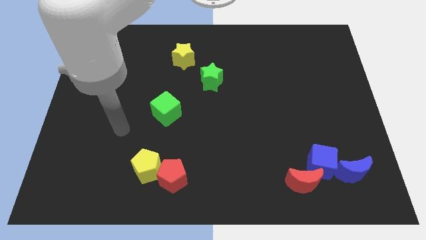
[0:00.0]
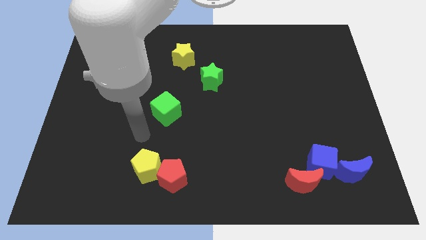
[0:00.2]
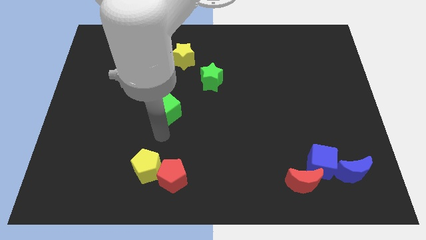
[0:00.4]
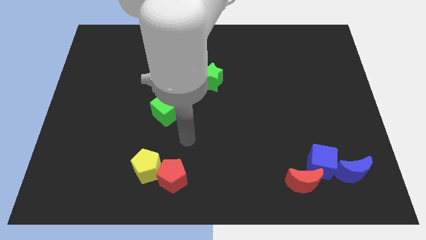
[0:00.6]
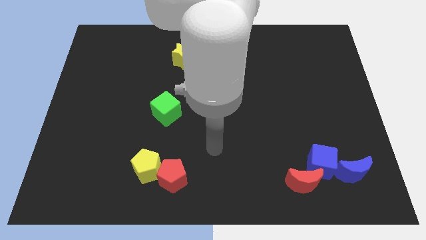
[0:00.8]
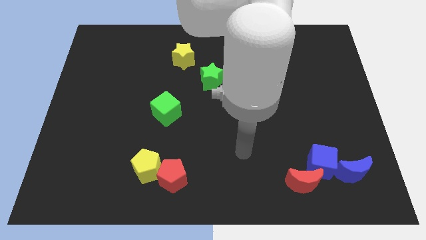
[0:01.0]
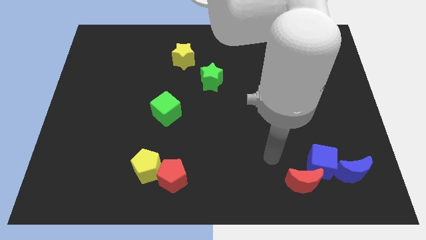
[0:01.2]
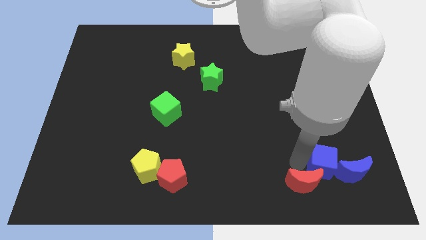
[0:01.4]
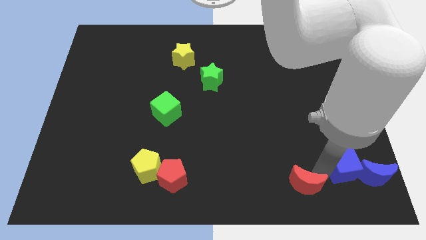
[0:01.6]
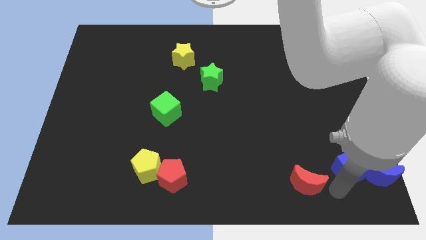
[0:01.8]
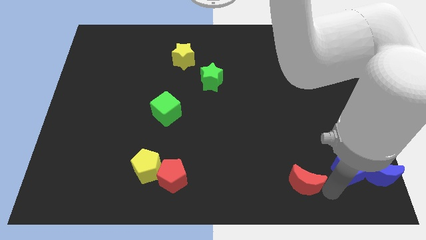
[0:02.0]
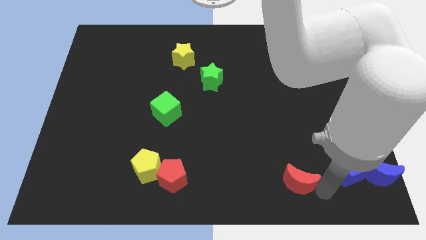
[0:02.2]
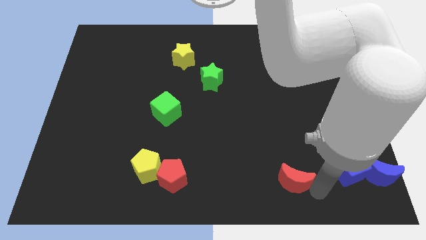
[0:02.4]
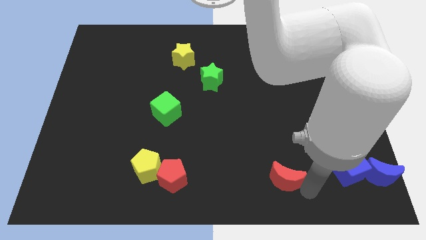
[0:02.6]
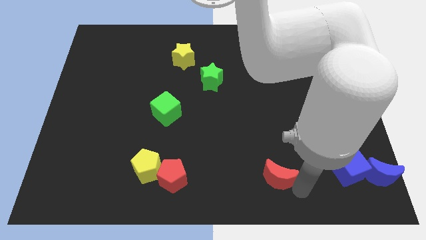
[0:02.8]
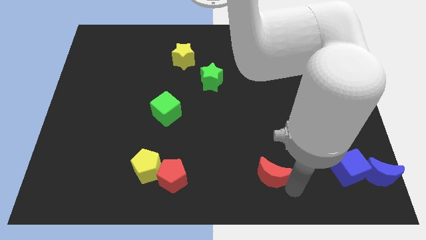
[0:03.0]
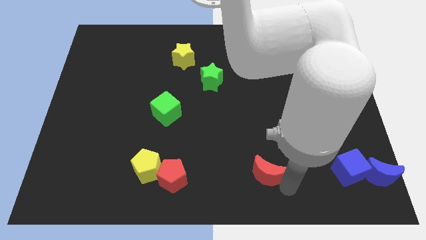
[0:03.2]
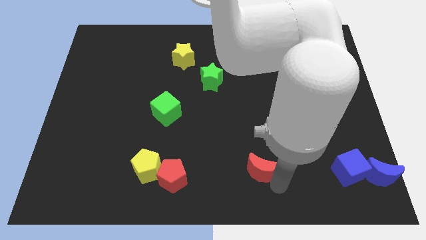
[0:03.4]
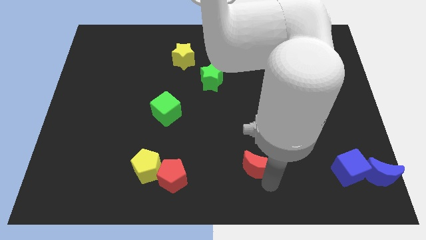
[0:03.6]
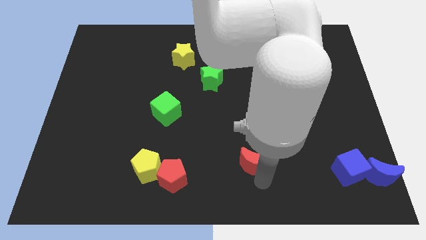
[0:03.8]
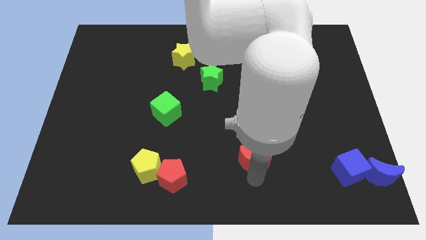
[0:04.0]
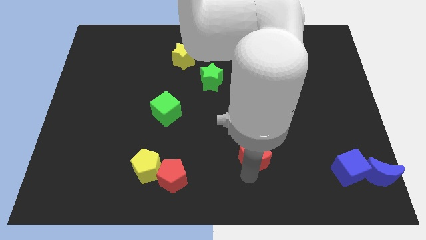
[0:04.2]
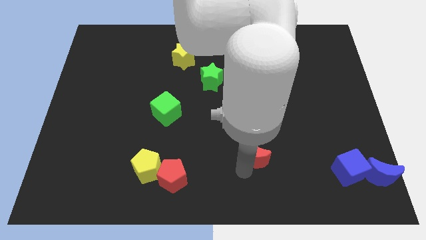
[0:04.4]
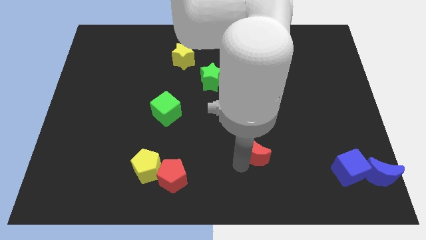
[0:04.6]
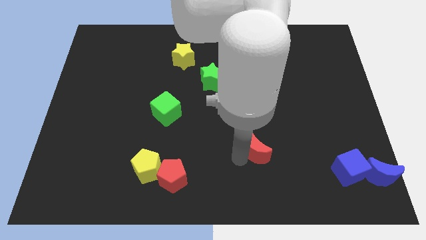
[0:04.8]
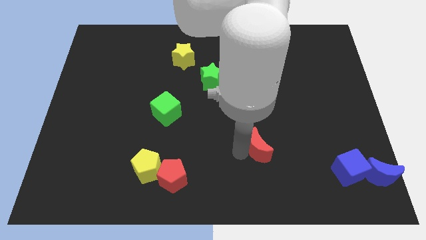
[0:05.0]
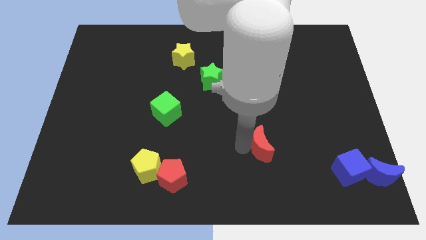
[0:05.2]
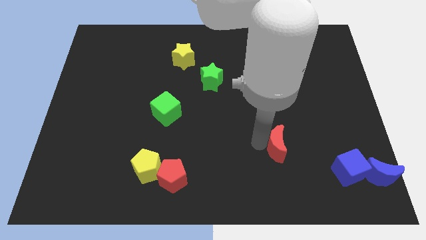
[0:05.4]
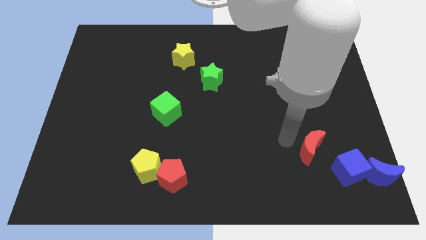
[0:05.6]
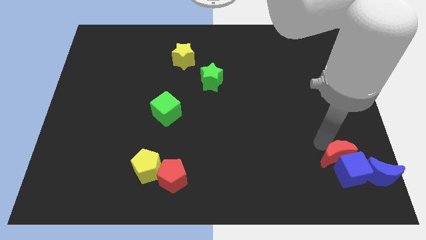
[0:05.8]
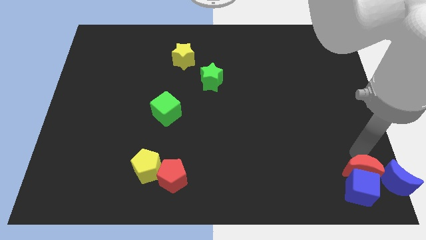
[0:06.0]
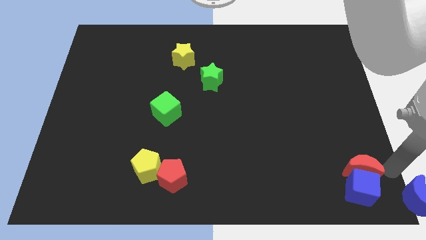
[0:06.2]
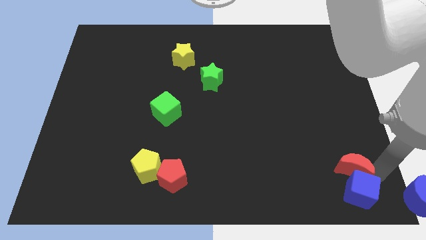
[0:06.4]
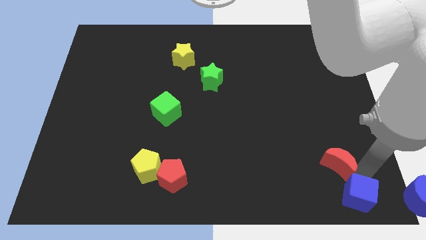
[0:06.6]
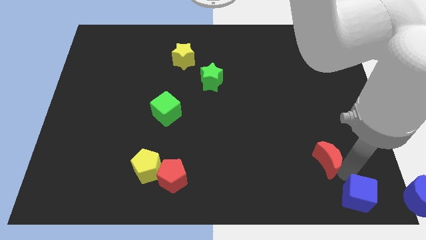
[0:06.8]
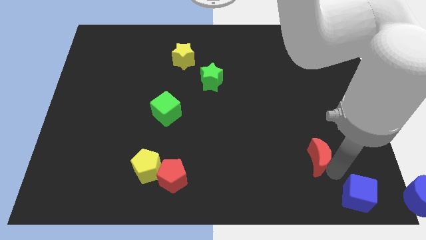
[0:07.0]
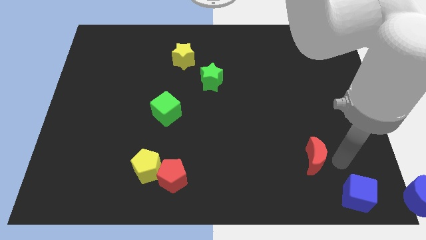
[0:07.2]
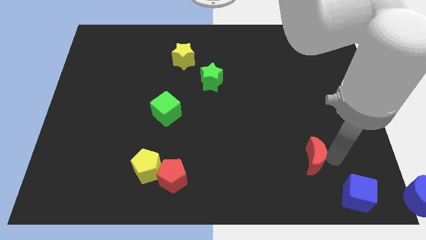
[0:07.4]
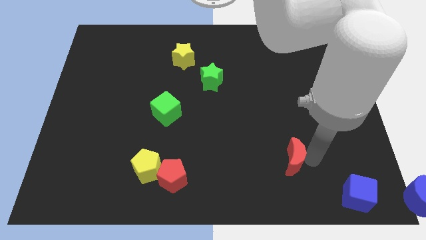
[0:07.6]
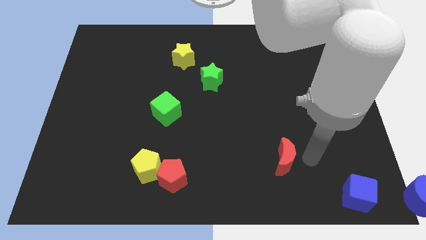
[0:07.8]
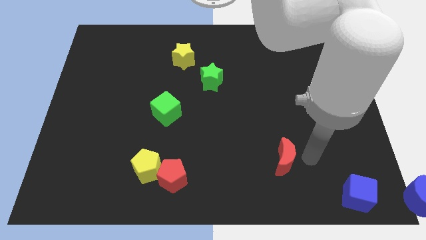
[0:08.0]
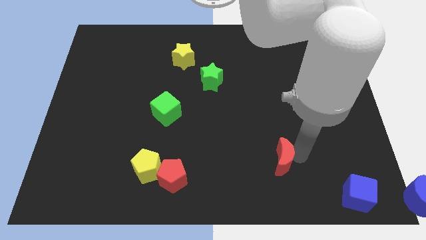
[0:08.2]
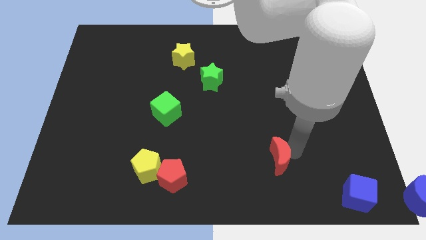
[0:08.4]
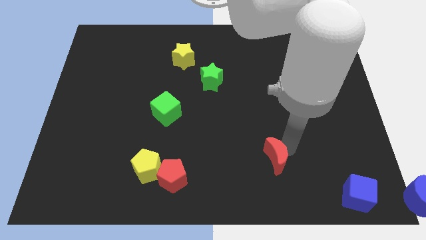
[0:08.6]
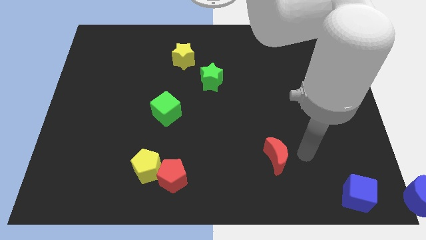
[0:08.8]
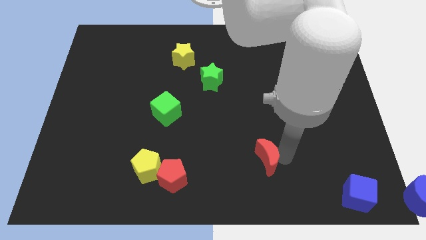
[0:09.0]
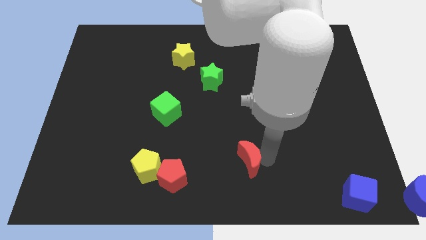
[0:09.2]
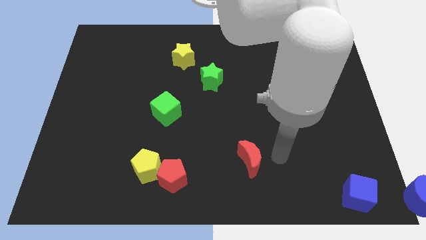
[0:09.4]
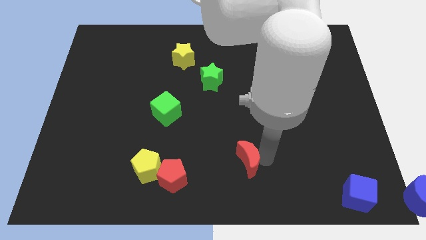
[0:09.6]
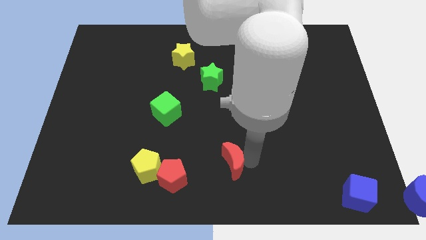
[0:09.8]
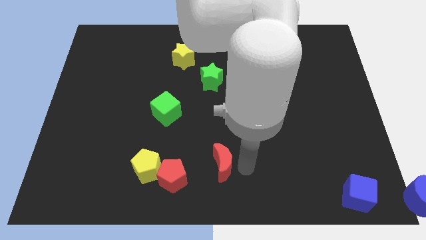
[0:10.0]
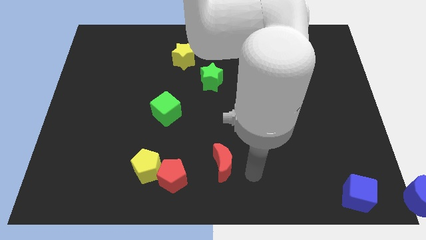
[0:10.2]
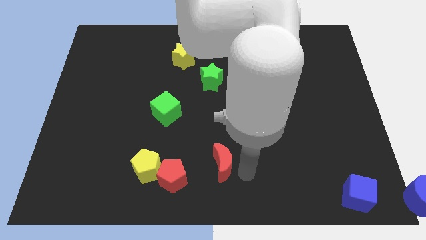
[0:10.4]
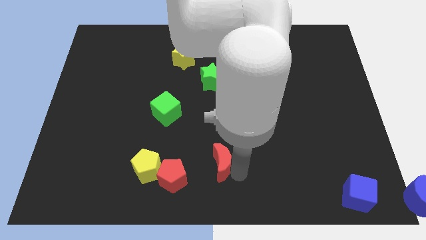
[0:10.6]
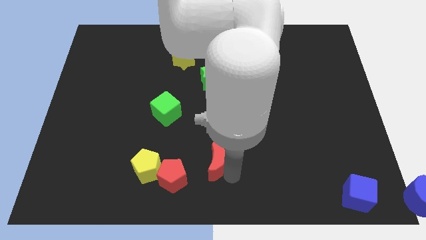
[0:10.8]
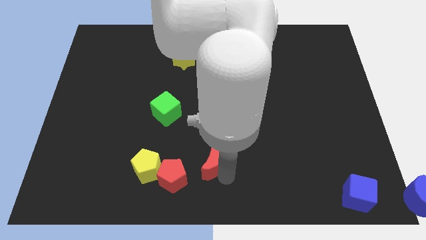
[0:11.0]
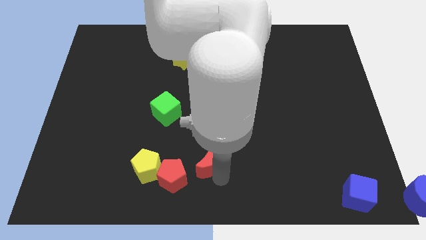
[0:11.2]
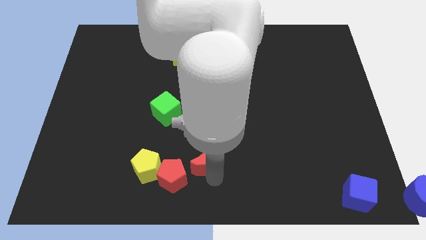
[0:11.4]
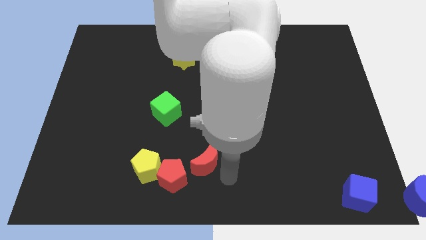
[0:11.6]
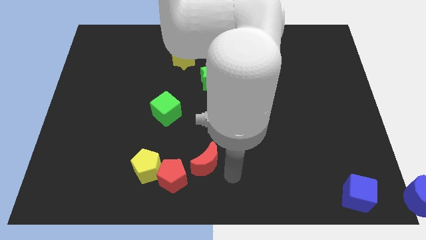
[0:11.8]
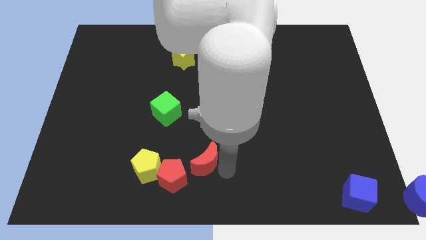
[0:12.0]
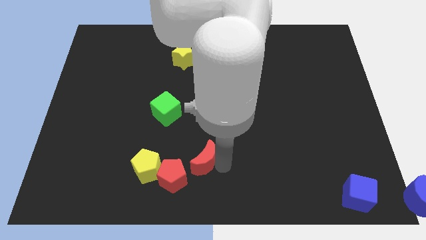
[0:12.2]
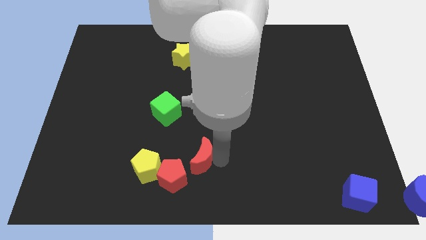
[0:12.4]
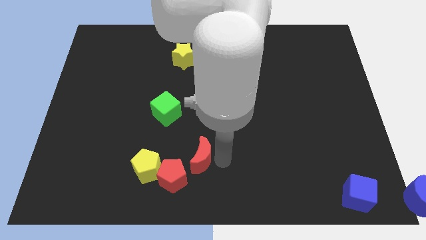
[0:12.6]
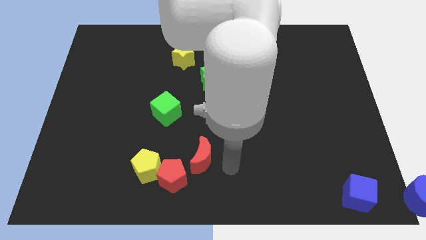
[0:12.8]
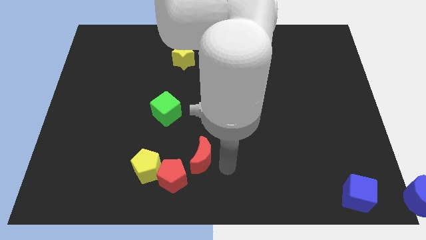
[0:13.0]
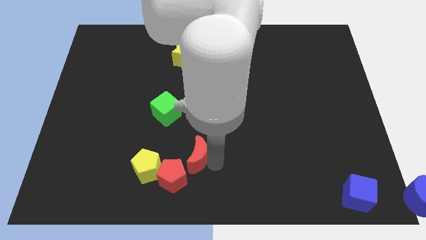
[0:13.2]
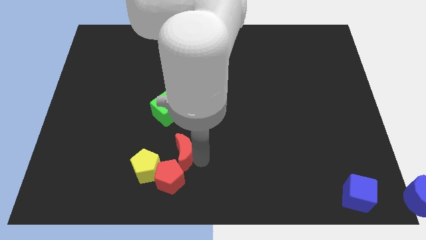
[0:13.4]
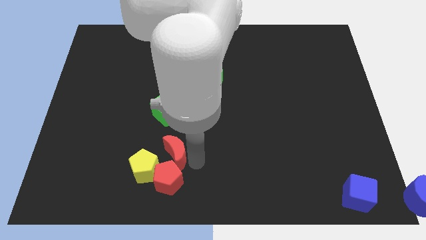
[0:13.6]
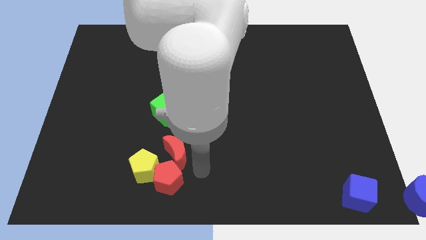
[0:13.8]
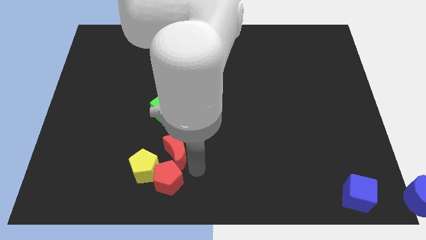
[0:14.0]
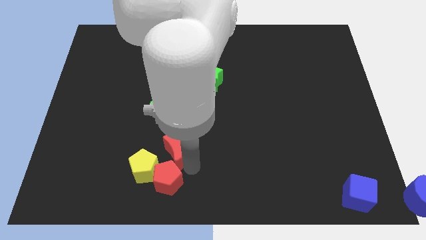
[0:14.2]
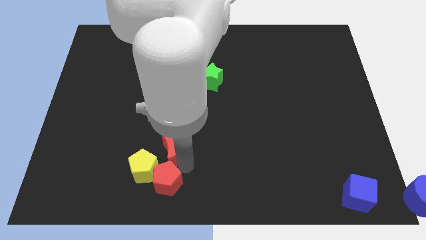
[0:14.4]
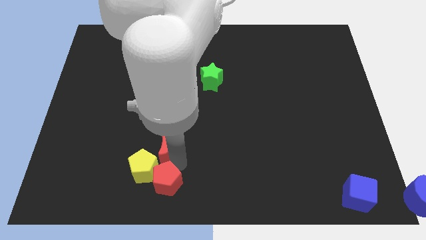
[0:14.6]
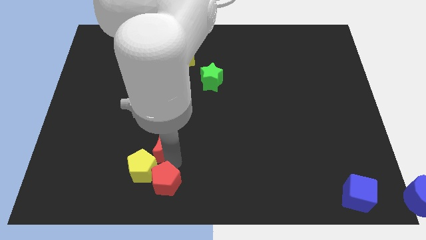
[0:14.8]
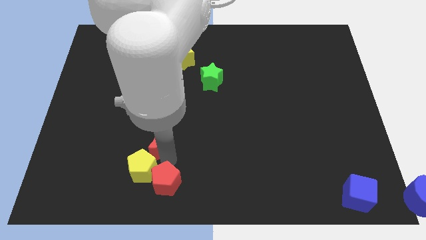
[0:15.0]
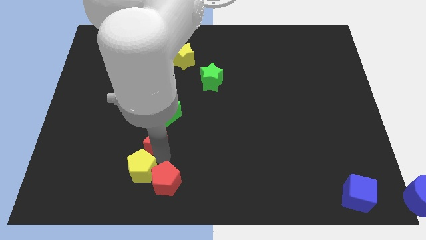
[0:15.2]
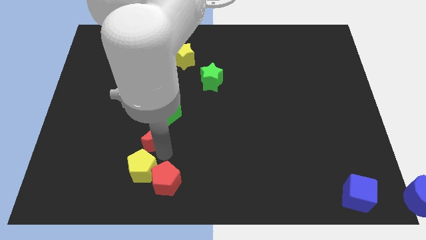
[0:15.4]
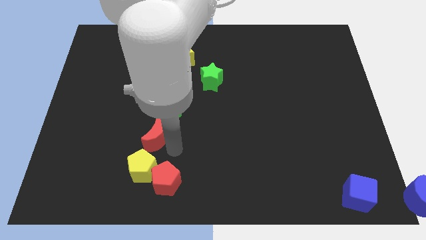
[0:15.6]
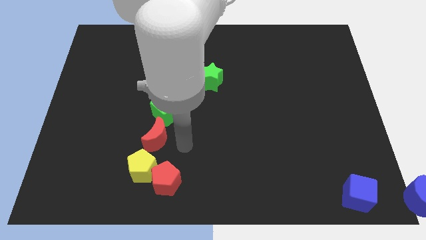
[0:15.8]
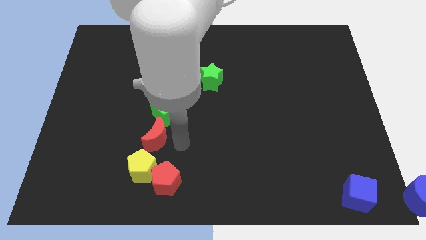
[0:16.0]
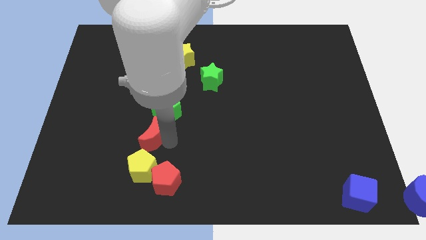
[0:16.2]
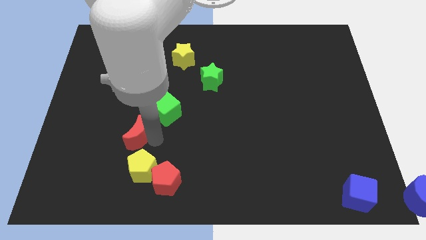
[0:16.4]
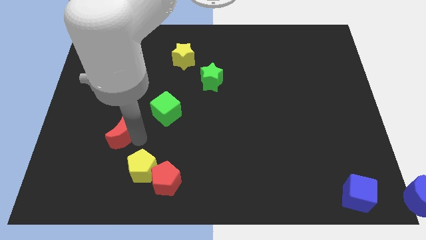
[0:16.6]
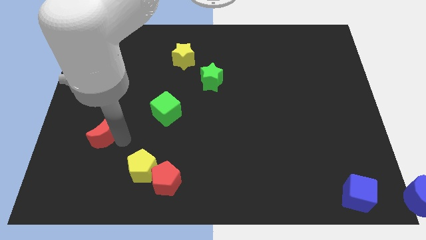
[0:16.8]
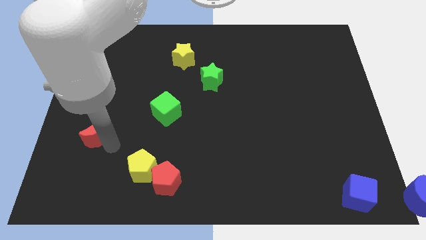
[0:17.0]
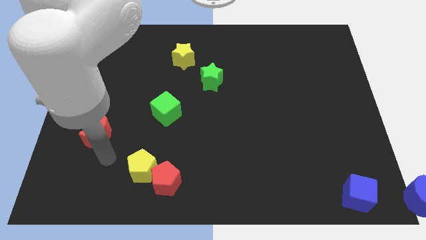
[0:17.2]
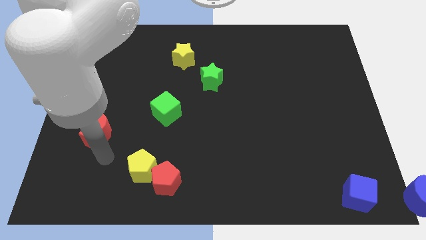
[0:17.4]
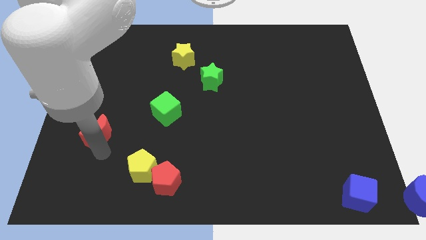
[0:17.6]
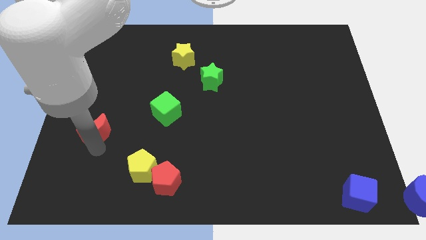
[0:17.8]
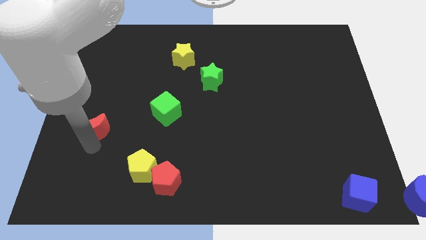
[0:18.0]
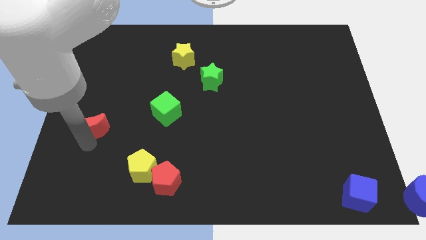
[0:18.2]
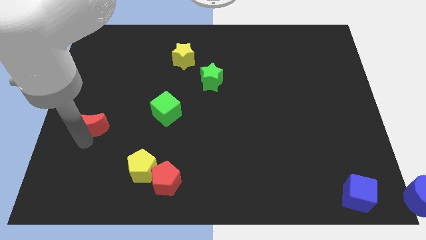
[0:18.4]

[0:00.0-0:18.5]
slide the red moon to the left side of the board
